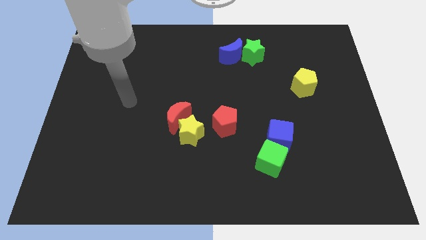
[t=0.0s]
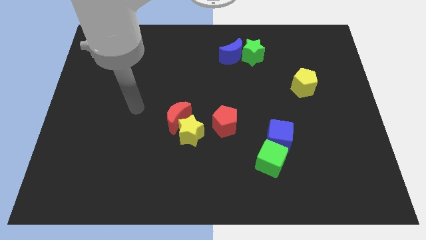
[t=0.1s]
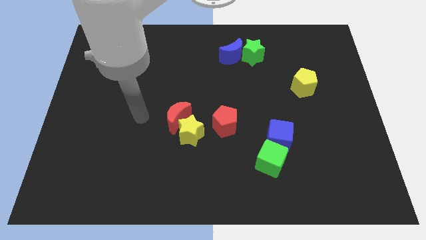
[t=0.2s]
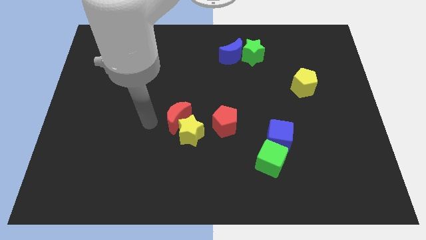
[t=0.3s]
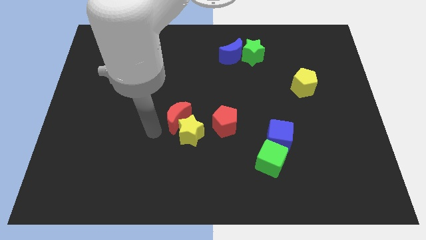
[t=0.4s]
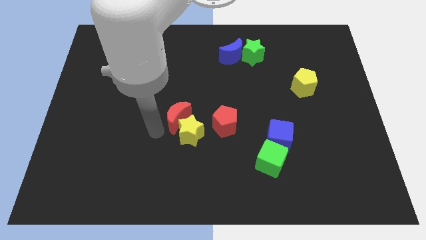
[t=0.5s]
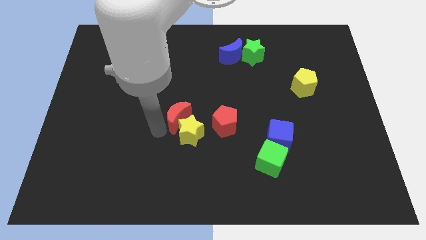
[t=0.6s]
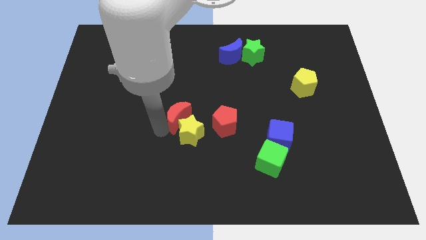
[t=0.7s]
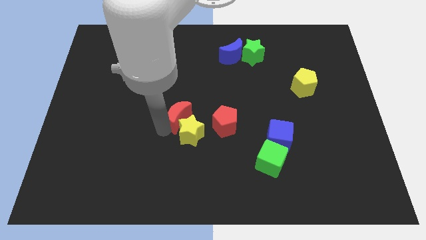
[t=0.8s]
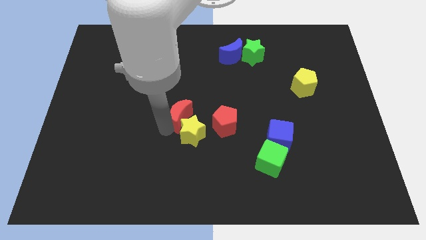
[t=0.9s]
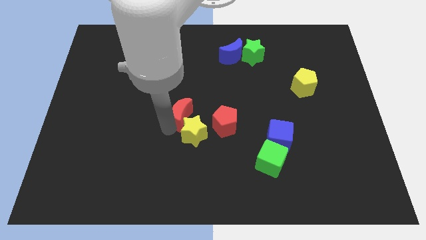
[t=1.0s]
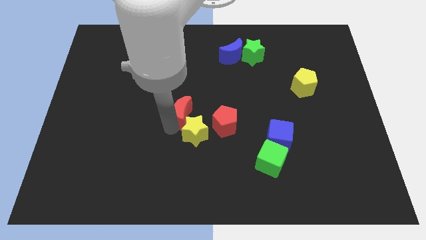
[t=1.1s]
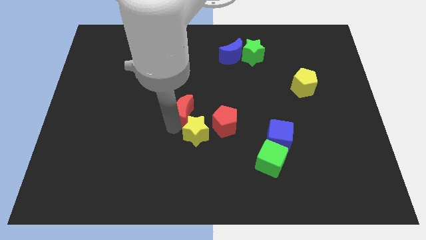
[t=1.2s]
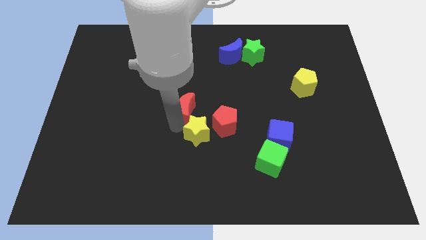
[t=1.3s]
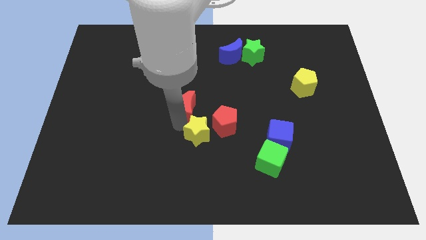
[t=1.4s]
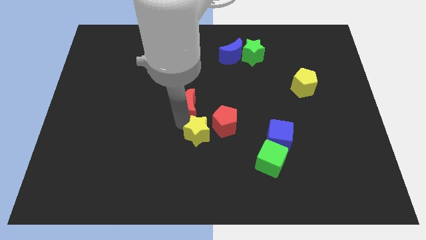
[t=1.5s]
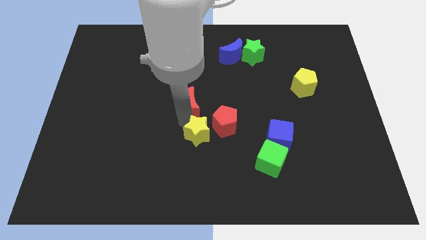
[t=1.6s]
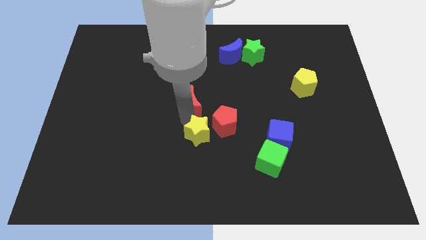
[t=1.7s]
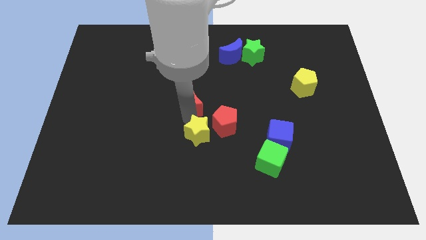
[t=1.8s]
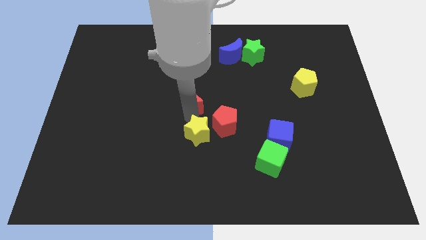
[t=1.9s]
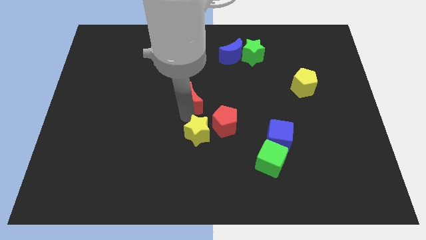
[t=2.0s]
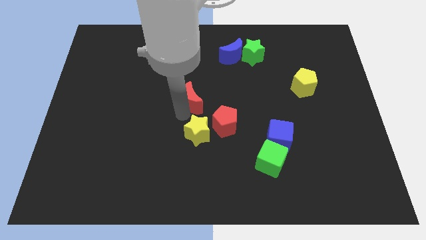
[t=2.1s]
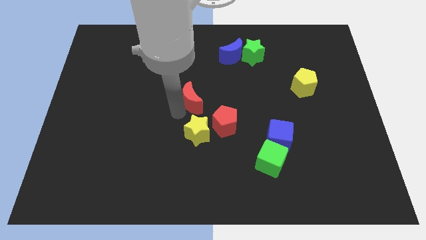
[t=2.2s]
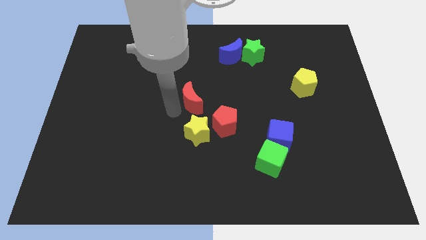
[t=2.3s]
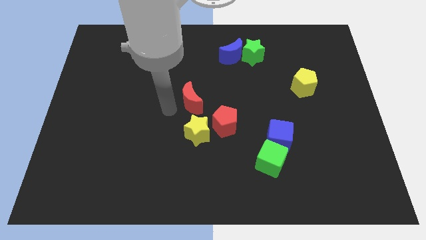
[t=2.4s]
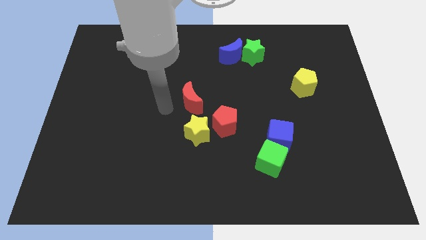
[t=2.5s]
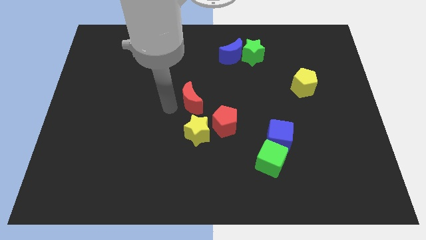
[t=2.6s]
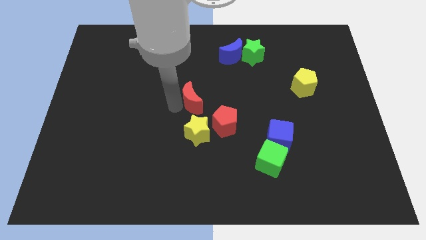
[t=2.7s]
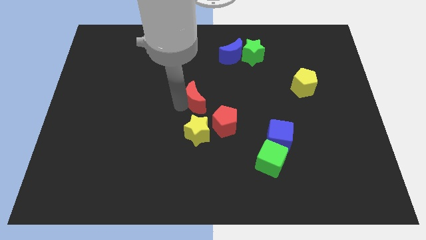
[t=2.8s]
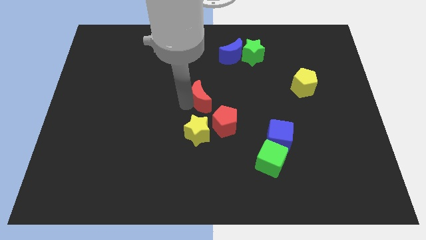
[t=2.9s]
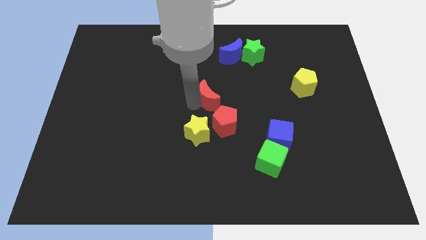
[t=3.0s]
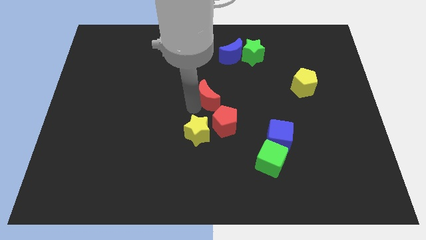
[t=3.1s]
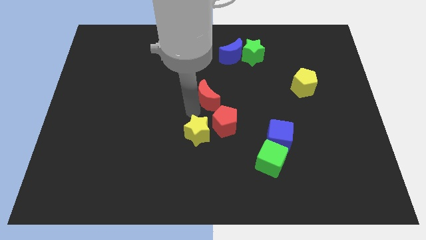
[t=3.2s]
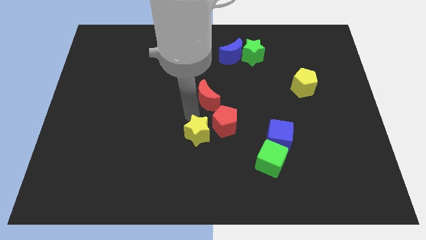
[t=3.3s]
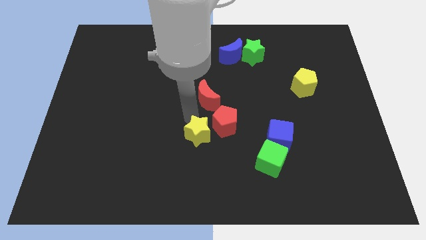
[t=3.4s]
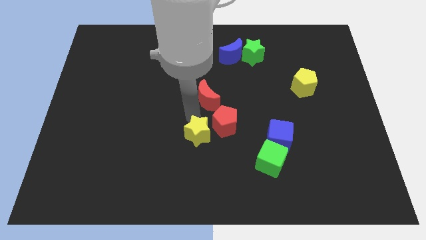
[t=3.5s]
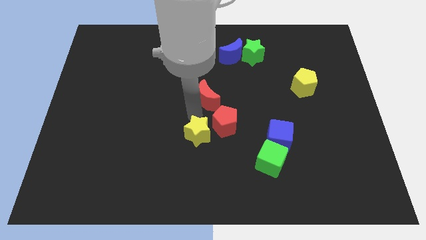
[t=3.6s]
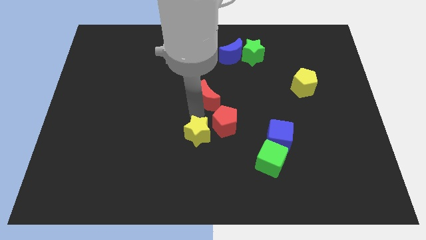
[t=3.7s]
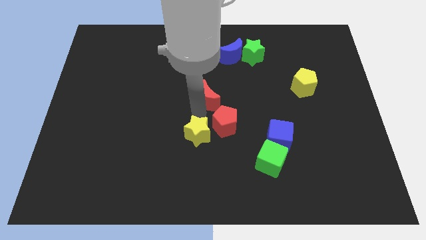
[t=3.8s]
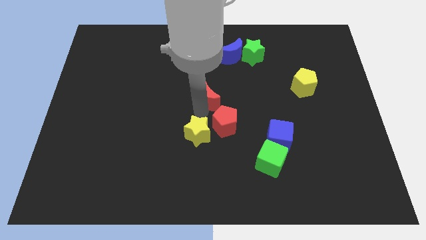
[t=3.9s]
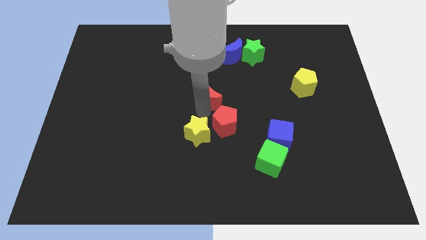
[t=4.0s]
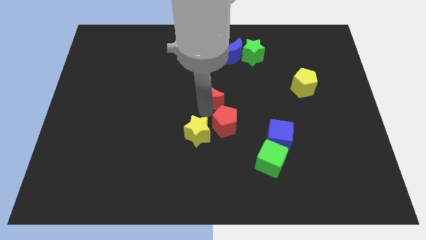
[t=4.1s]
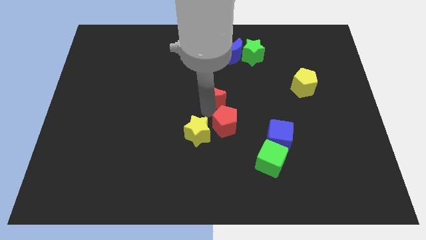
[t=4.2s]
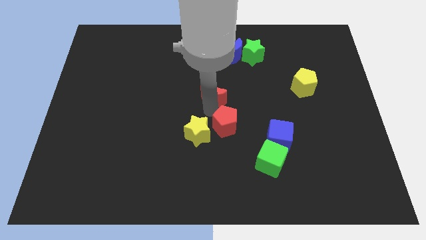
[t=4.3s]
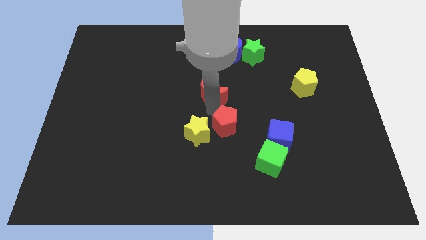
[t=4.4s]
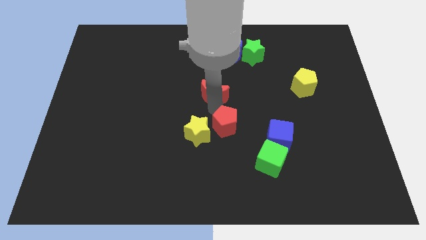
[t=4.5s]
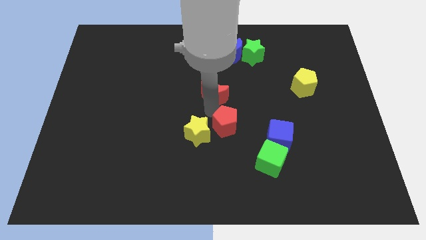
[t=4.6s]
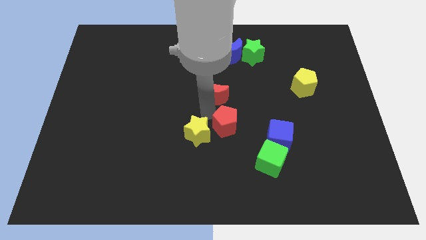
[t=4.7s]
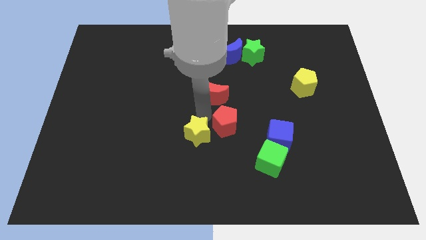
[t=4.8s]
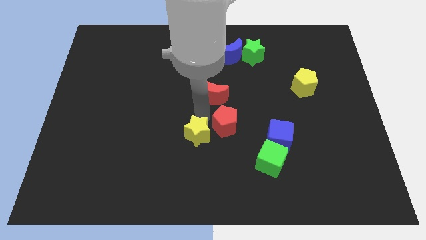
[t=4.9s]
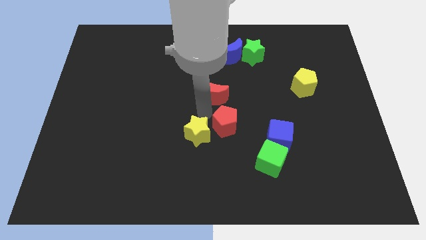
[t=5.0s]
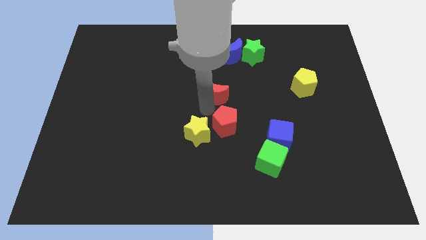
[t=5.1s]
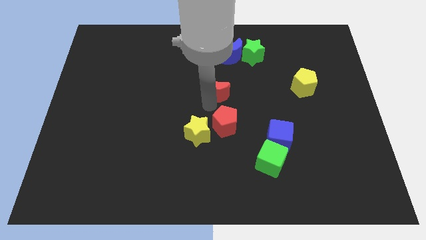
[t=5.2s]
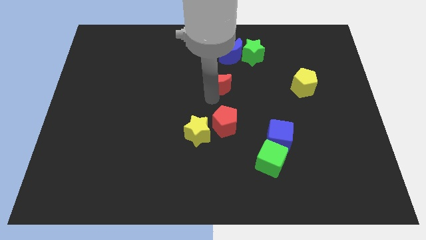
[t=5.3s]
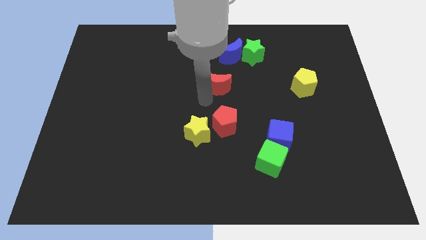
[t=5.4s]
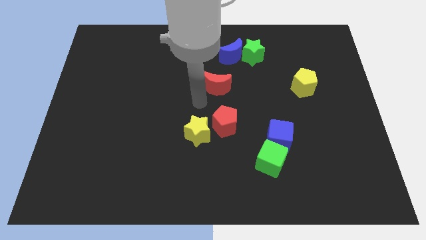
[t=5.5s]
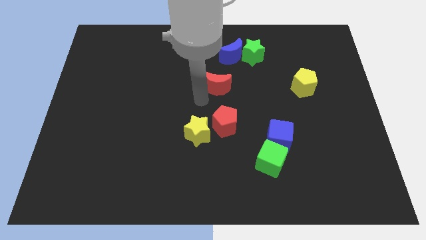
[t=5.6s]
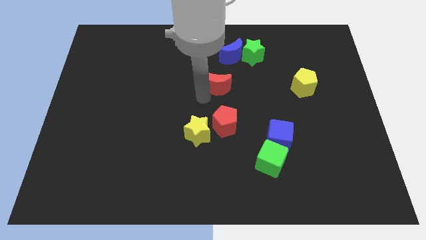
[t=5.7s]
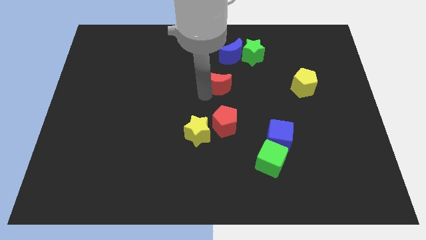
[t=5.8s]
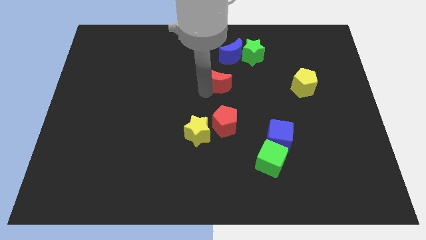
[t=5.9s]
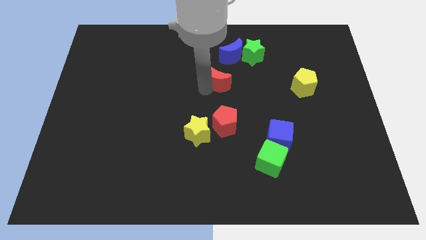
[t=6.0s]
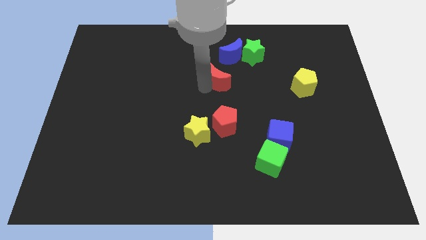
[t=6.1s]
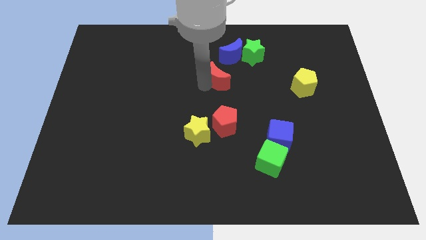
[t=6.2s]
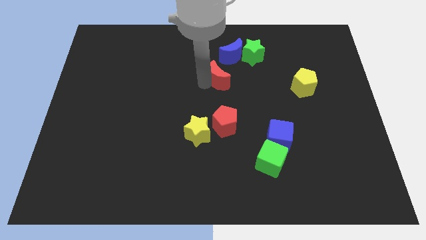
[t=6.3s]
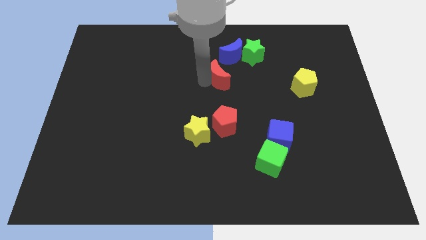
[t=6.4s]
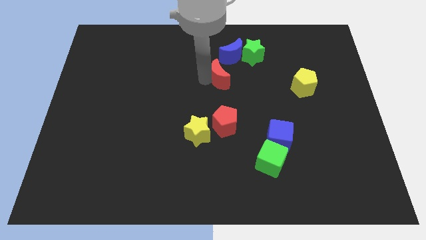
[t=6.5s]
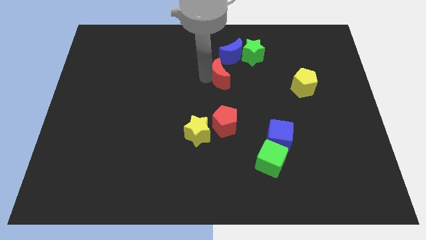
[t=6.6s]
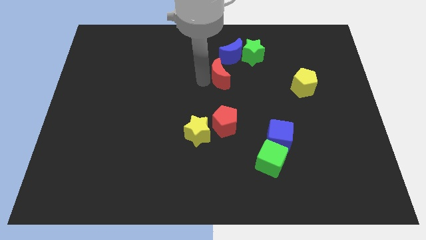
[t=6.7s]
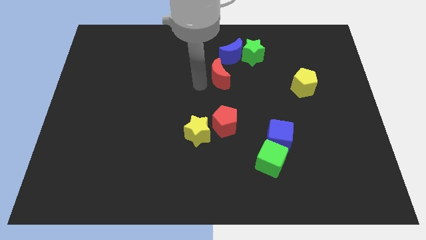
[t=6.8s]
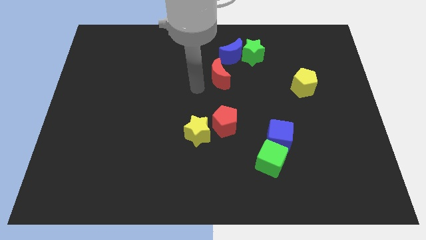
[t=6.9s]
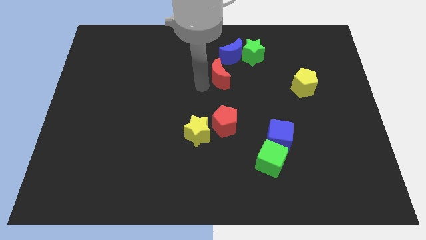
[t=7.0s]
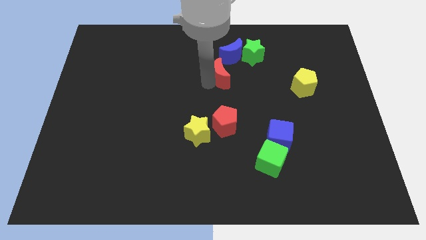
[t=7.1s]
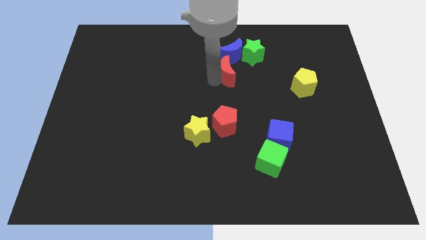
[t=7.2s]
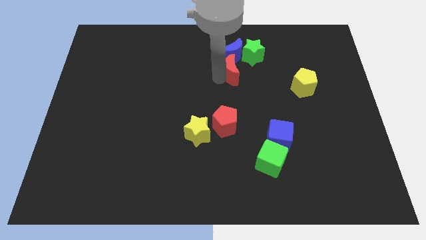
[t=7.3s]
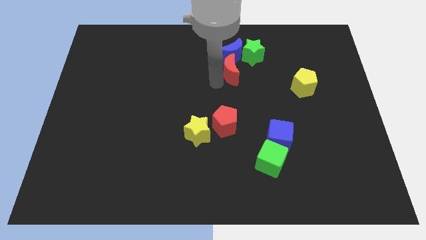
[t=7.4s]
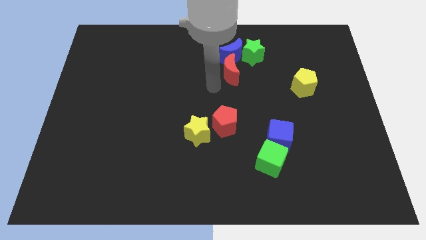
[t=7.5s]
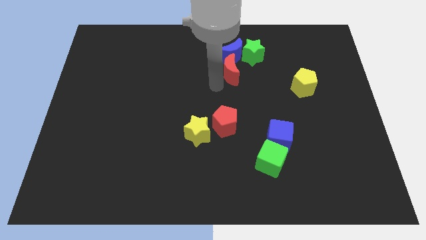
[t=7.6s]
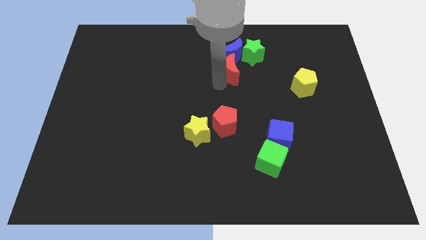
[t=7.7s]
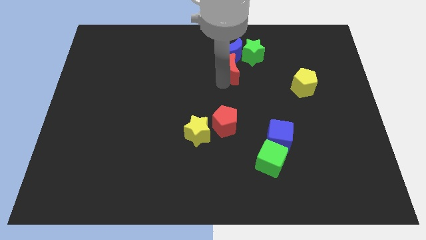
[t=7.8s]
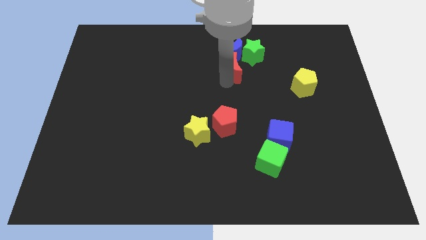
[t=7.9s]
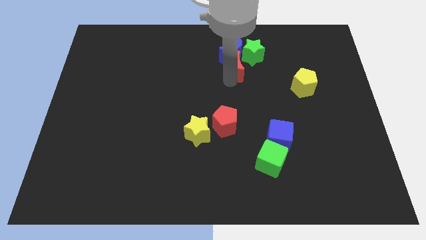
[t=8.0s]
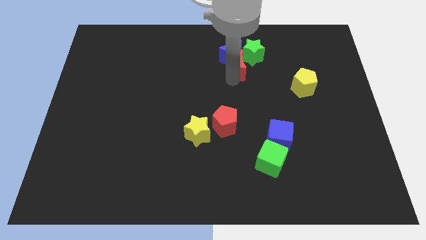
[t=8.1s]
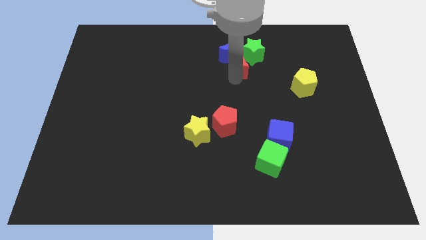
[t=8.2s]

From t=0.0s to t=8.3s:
put the red moon towards the green star
